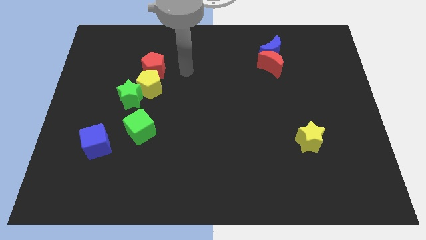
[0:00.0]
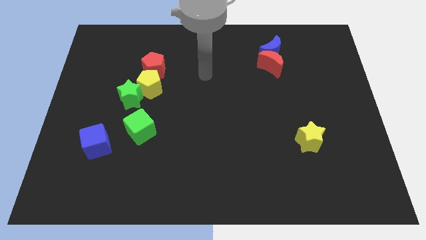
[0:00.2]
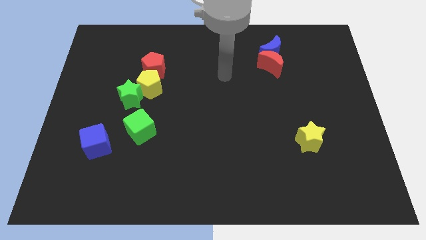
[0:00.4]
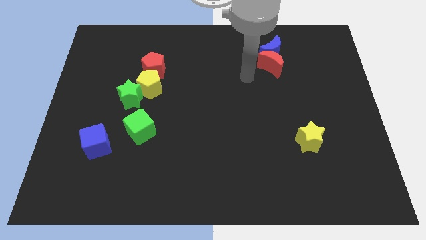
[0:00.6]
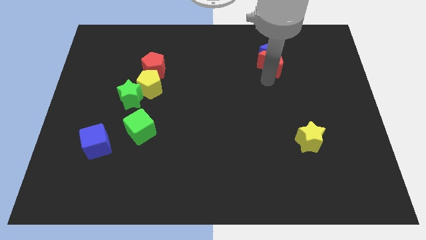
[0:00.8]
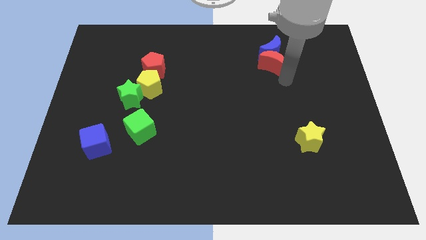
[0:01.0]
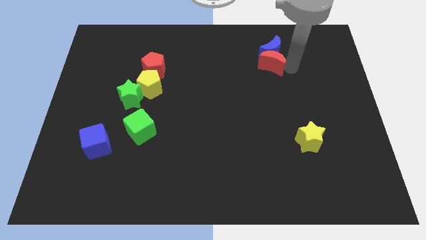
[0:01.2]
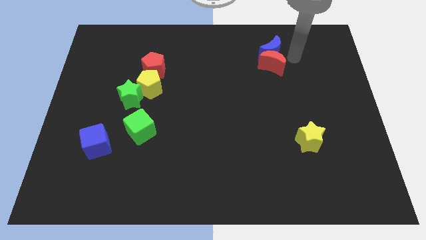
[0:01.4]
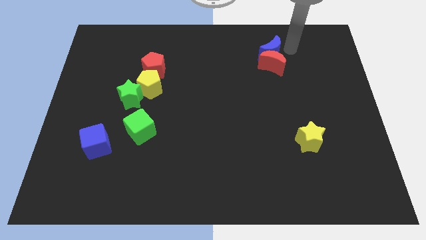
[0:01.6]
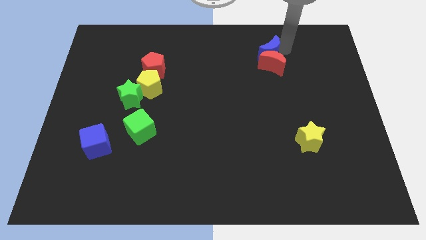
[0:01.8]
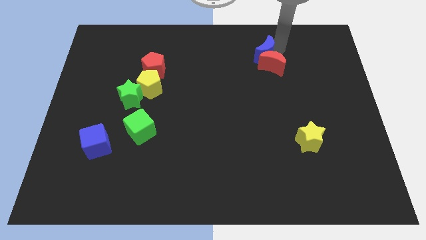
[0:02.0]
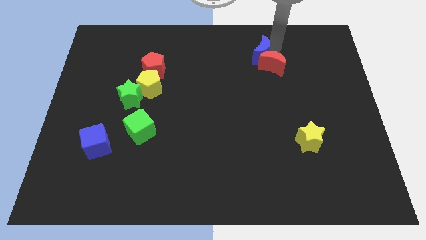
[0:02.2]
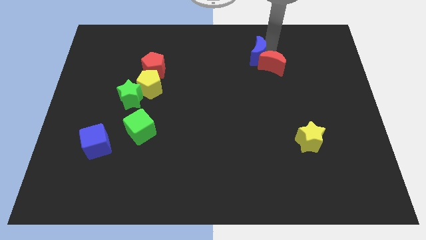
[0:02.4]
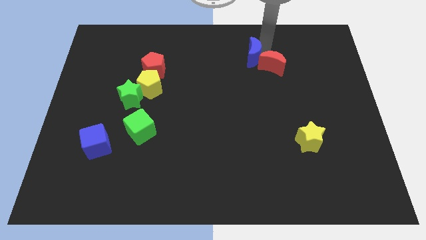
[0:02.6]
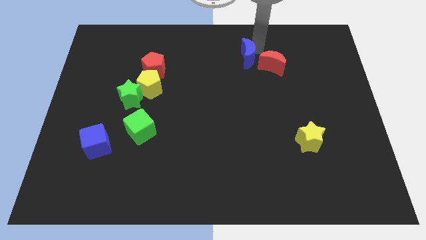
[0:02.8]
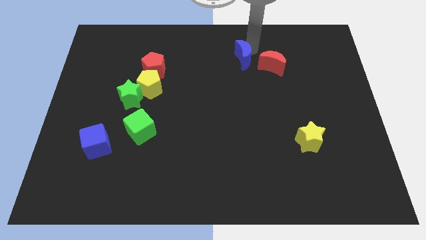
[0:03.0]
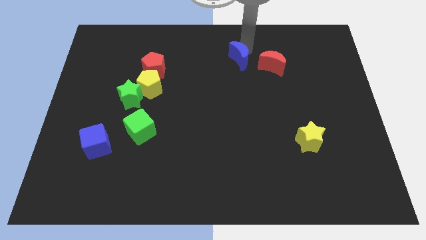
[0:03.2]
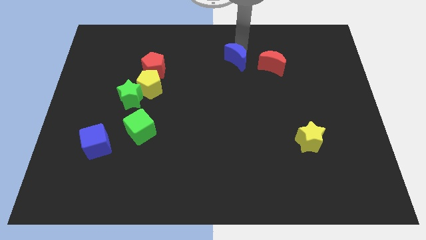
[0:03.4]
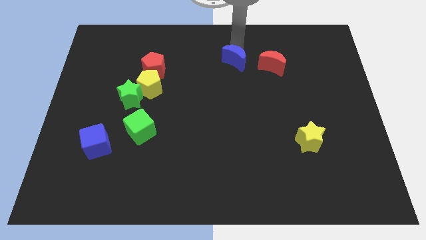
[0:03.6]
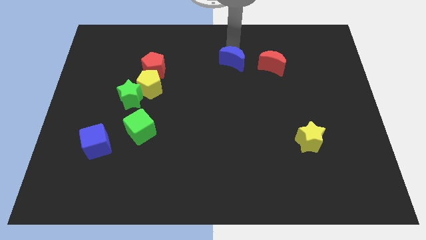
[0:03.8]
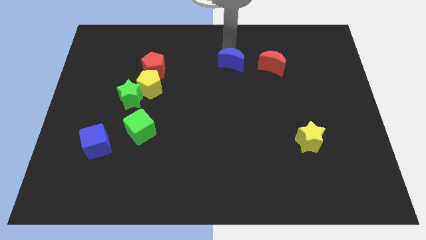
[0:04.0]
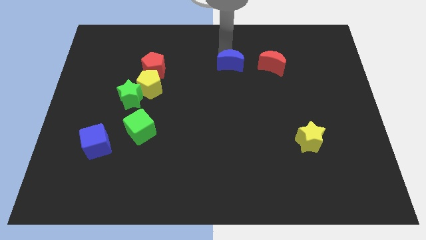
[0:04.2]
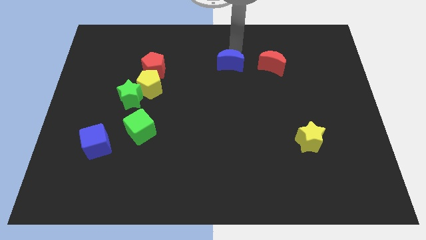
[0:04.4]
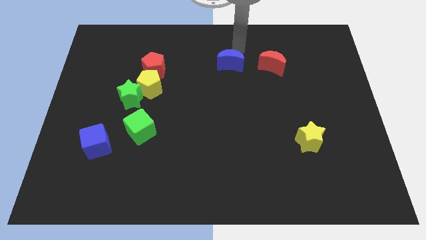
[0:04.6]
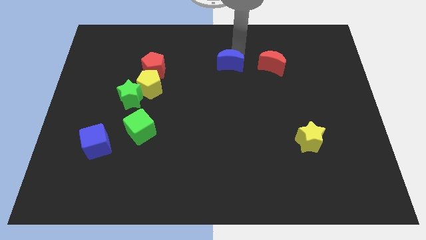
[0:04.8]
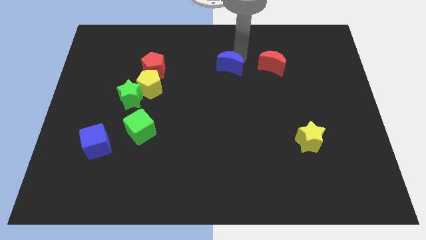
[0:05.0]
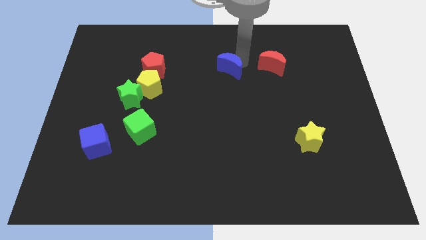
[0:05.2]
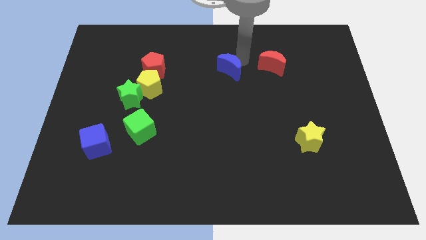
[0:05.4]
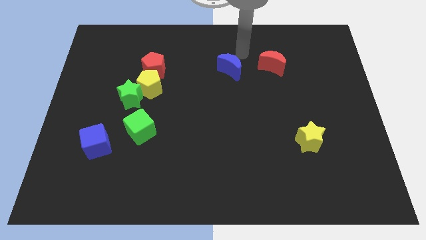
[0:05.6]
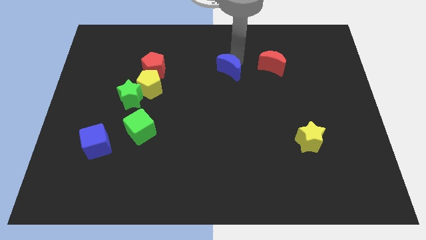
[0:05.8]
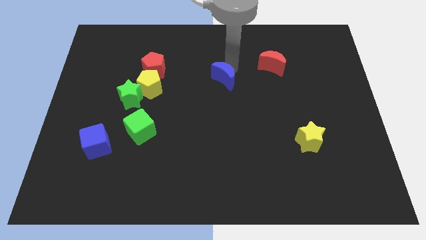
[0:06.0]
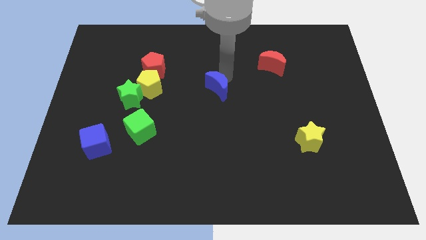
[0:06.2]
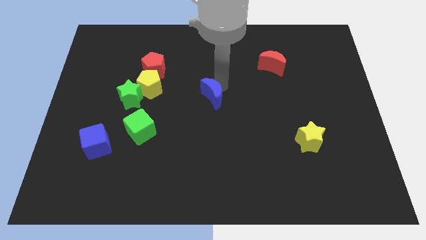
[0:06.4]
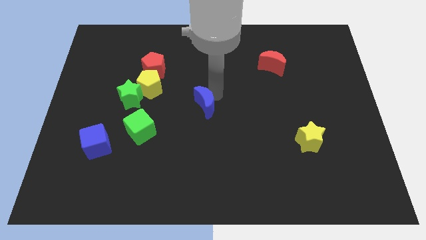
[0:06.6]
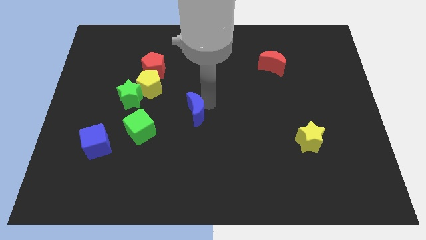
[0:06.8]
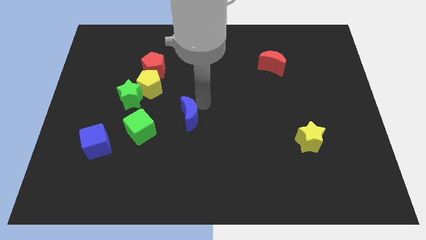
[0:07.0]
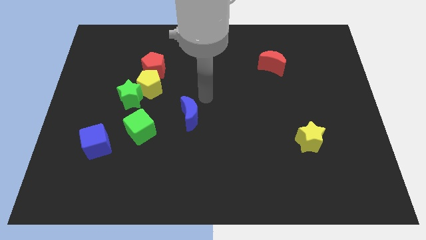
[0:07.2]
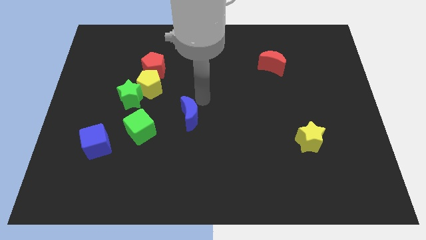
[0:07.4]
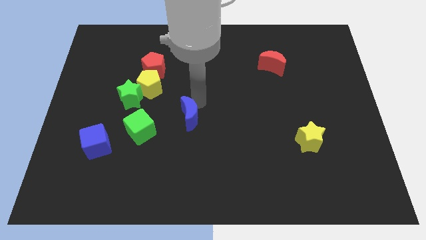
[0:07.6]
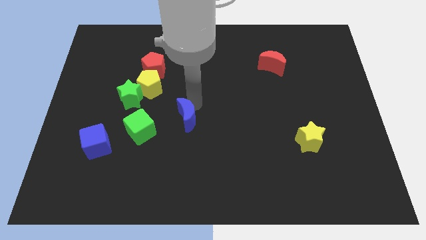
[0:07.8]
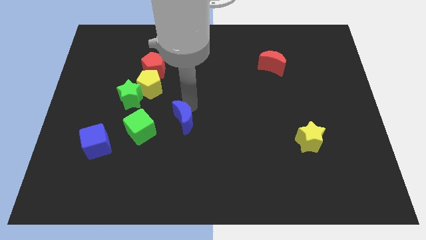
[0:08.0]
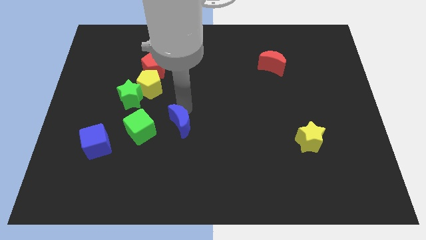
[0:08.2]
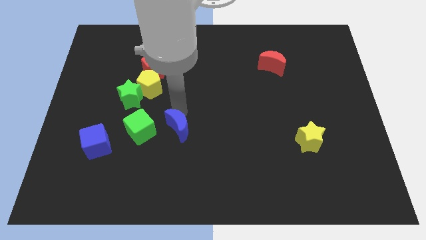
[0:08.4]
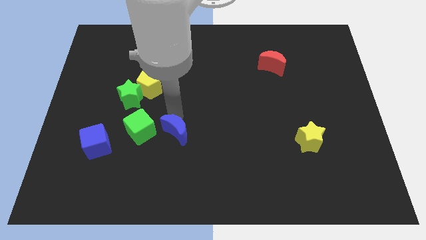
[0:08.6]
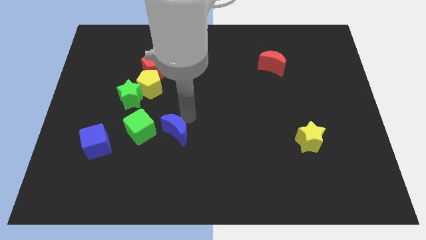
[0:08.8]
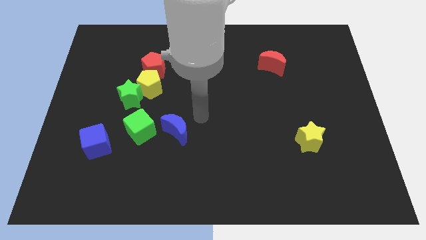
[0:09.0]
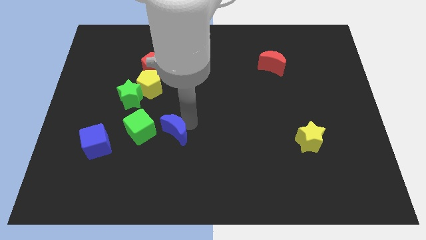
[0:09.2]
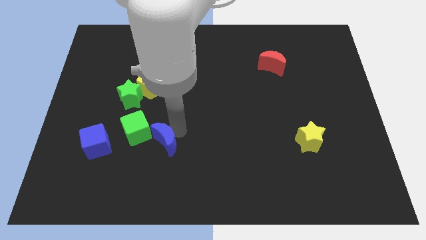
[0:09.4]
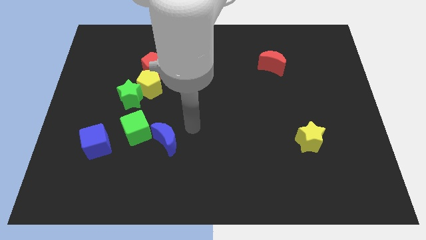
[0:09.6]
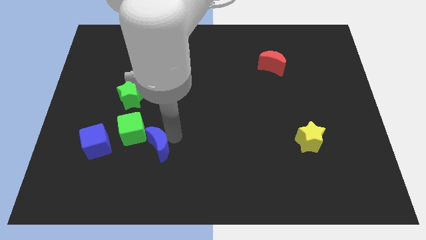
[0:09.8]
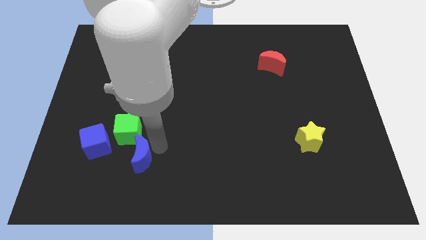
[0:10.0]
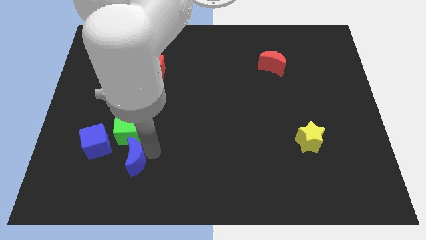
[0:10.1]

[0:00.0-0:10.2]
move the blue moon diagonally down and to the right of the blue cube

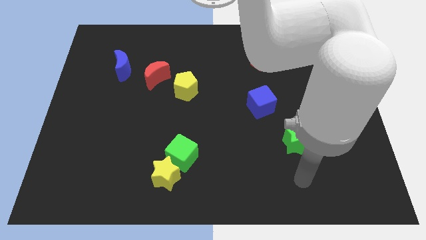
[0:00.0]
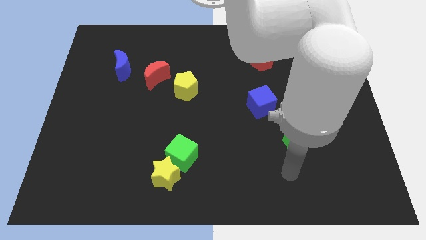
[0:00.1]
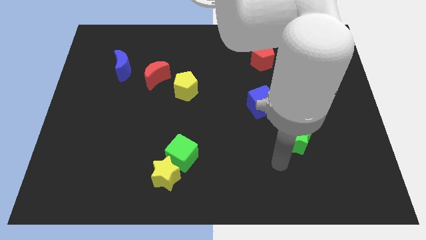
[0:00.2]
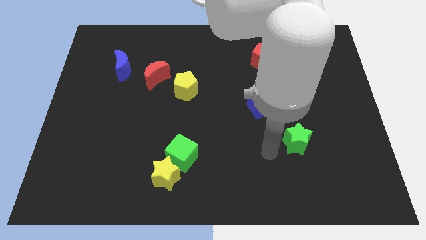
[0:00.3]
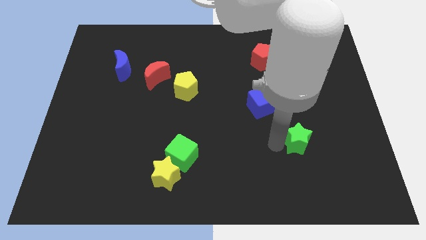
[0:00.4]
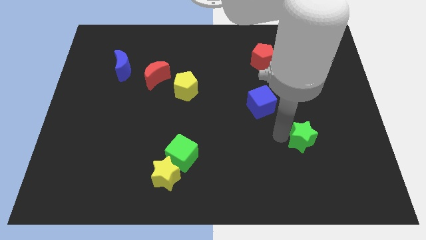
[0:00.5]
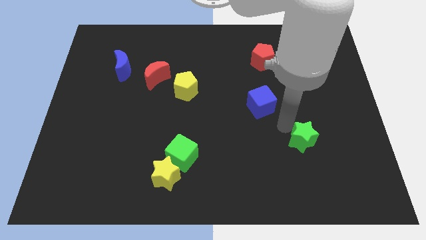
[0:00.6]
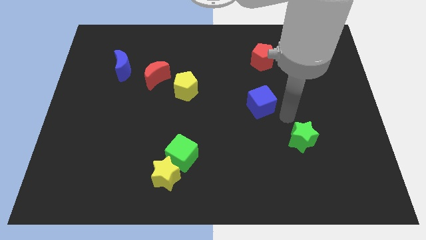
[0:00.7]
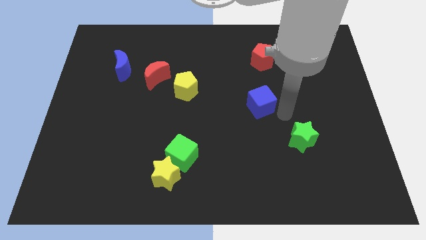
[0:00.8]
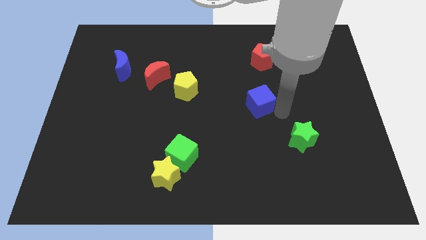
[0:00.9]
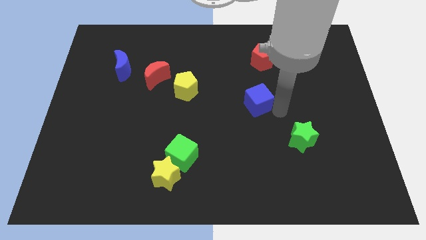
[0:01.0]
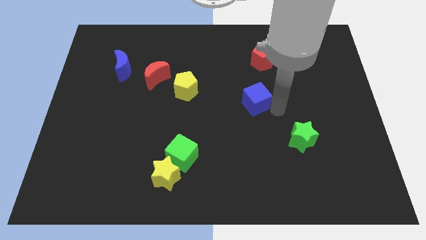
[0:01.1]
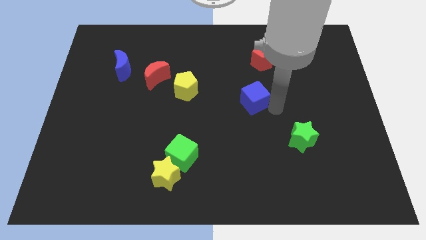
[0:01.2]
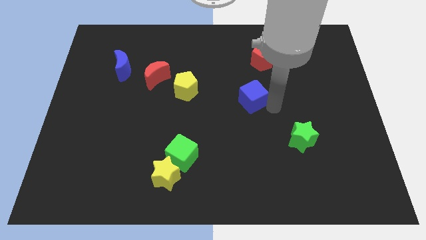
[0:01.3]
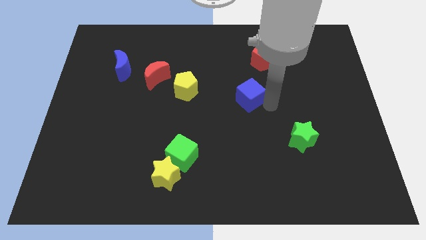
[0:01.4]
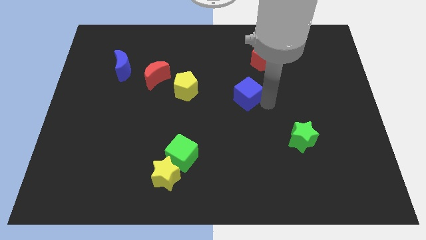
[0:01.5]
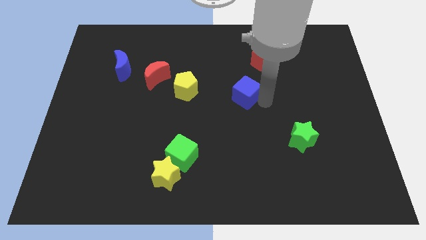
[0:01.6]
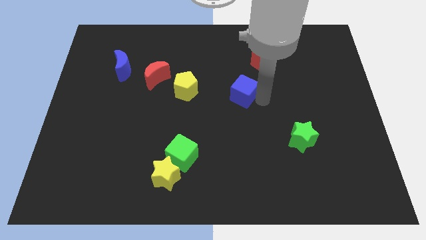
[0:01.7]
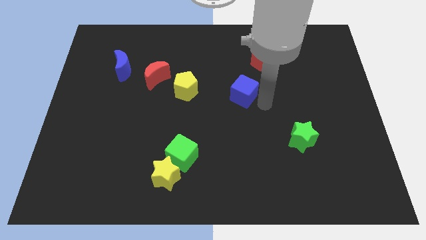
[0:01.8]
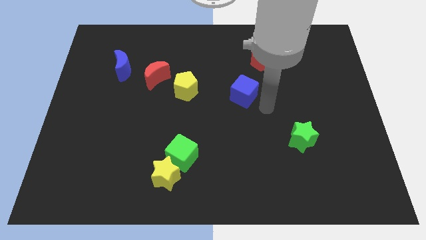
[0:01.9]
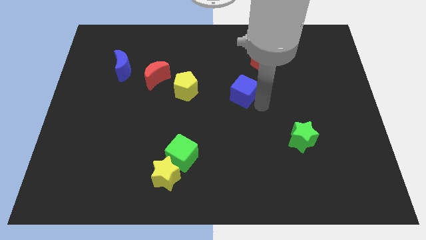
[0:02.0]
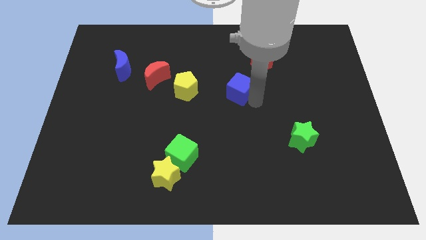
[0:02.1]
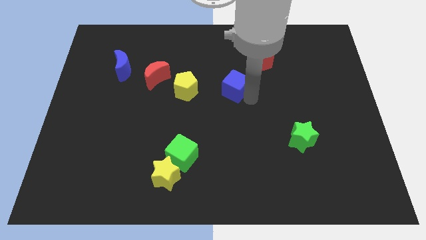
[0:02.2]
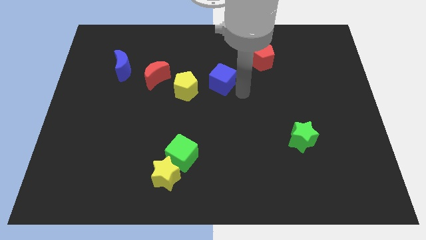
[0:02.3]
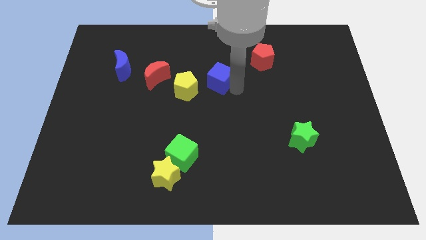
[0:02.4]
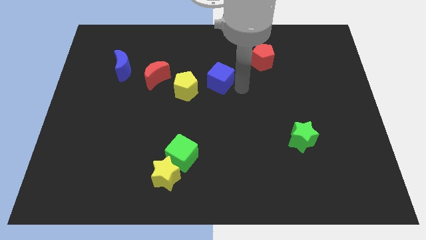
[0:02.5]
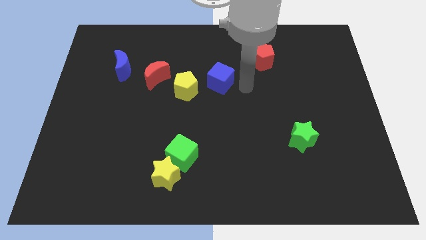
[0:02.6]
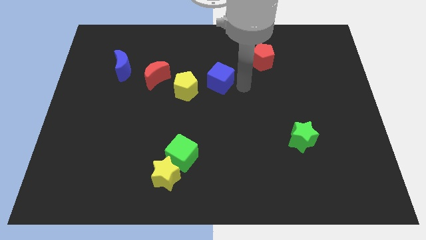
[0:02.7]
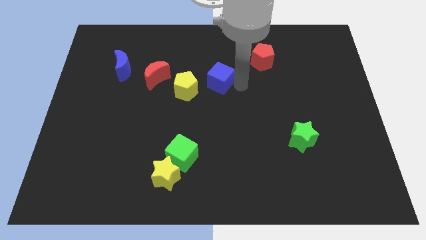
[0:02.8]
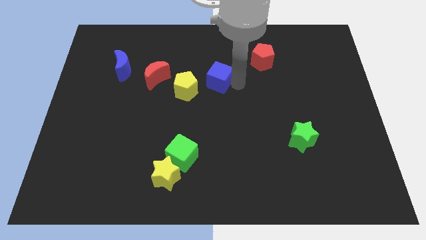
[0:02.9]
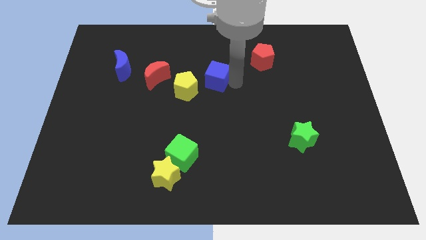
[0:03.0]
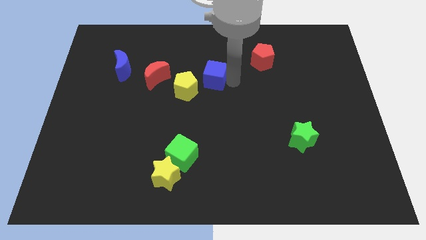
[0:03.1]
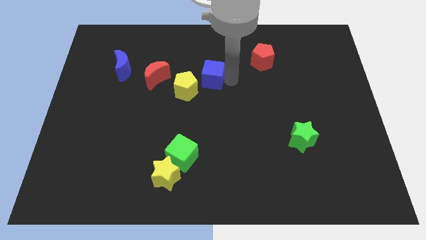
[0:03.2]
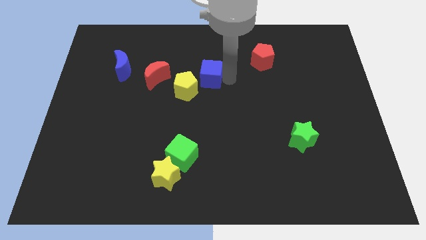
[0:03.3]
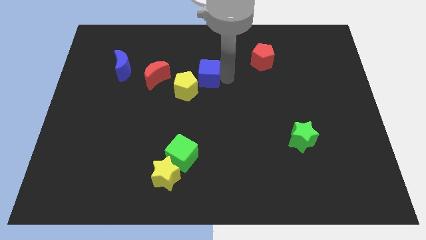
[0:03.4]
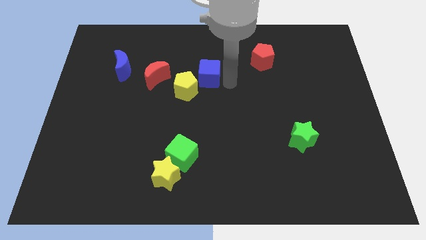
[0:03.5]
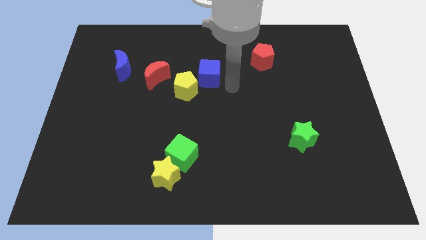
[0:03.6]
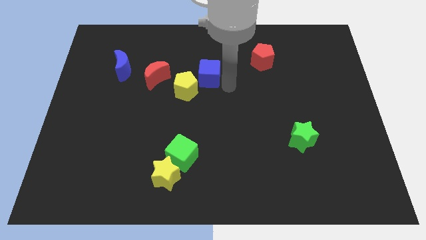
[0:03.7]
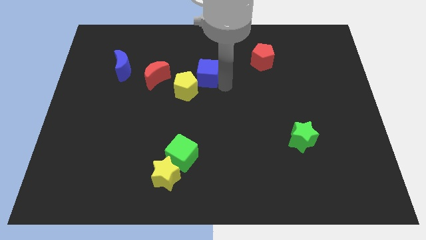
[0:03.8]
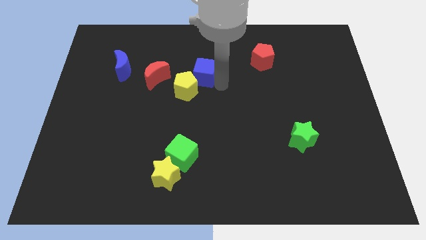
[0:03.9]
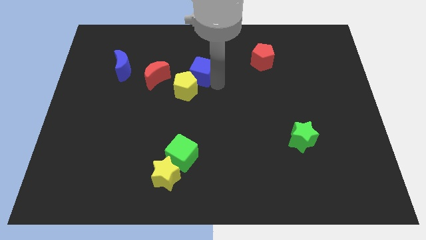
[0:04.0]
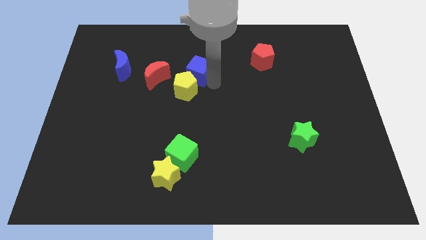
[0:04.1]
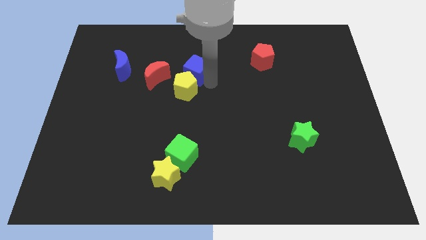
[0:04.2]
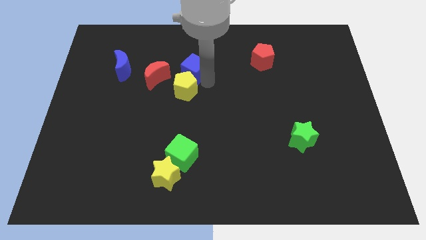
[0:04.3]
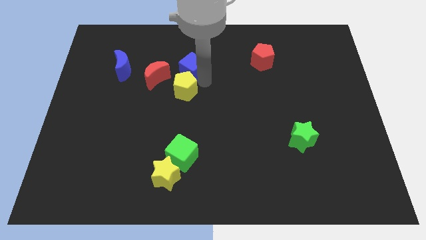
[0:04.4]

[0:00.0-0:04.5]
push the blue cube to the top right side of the red moon
